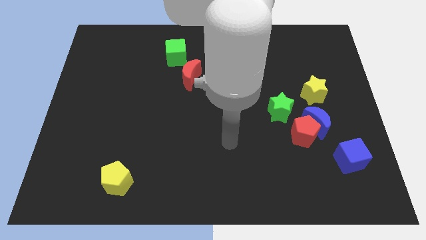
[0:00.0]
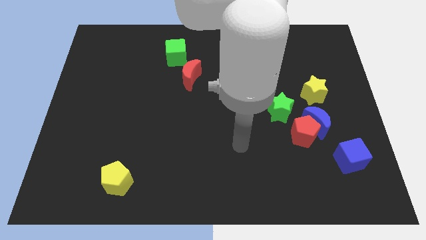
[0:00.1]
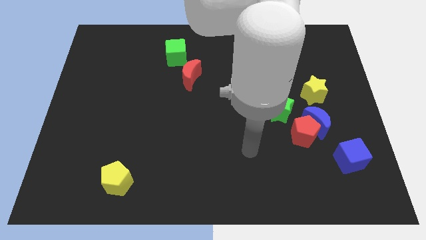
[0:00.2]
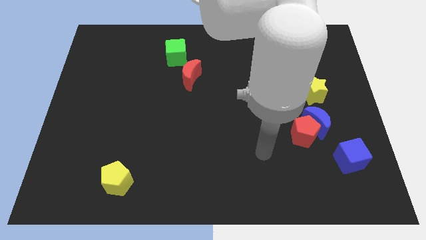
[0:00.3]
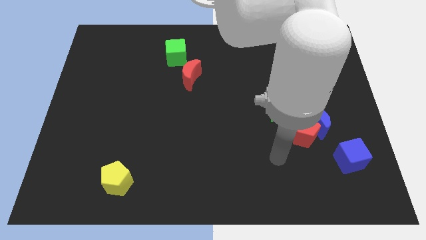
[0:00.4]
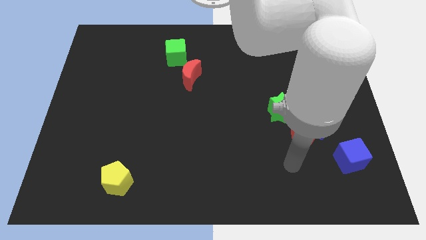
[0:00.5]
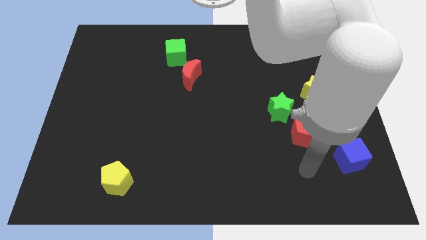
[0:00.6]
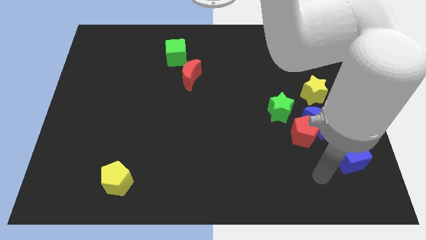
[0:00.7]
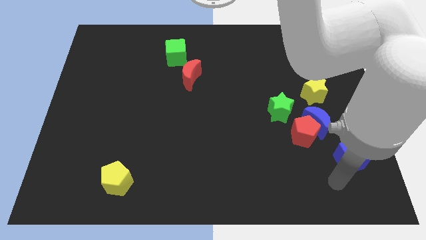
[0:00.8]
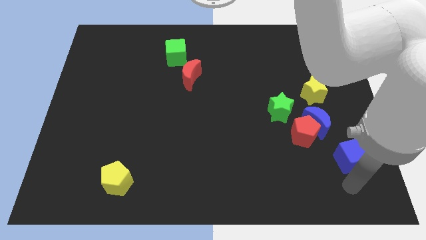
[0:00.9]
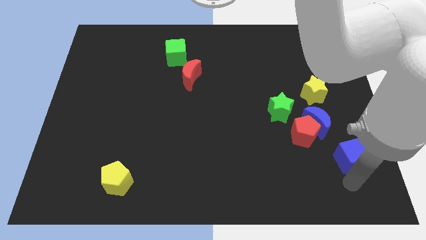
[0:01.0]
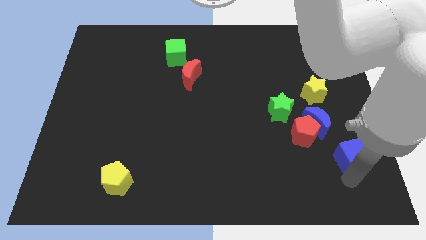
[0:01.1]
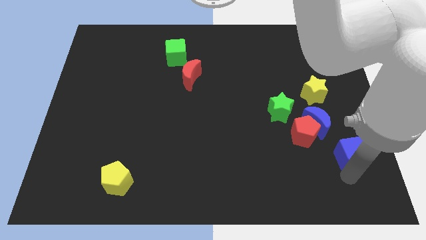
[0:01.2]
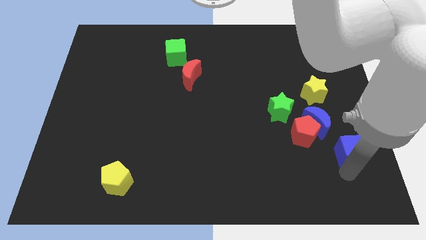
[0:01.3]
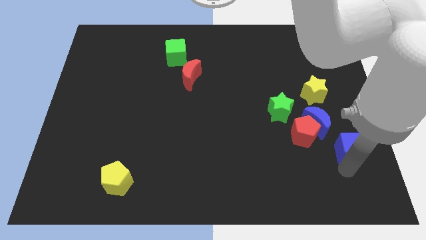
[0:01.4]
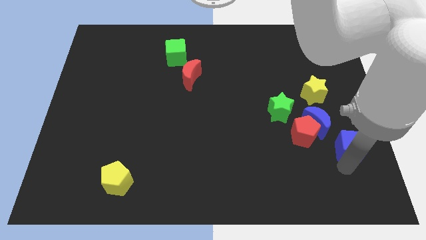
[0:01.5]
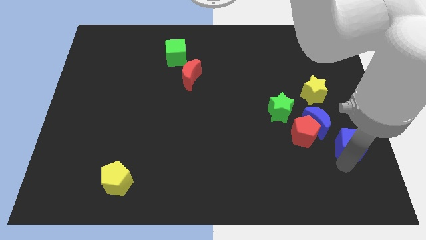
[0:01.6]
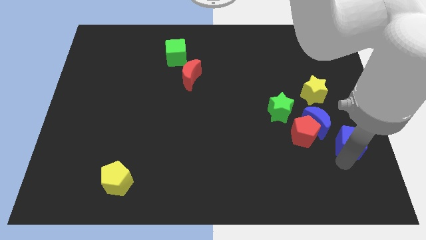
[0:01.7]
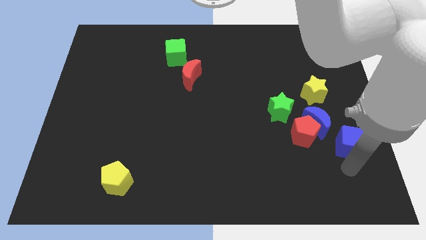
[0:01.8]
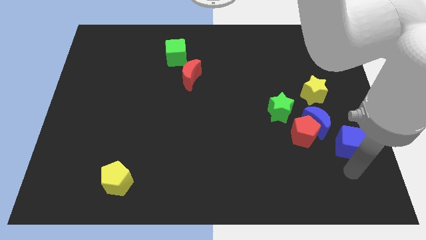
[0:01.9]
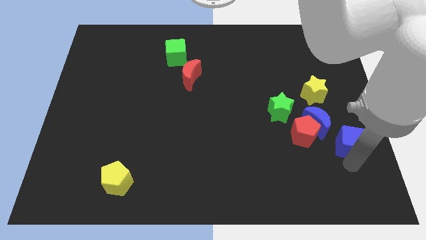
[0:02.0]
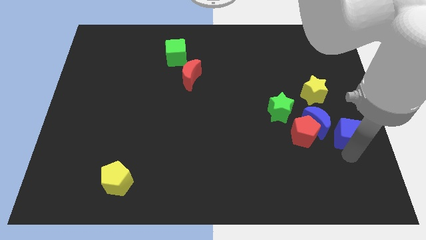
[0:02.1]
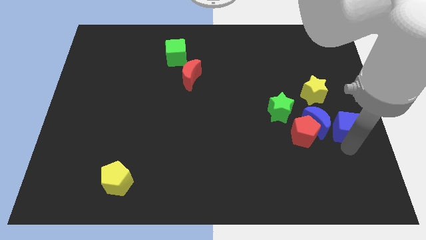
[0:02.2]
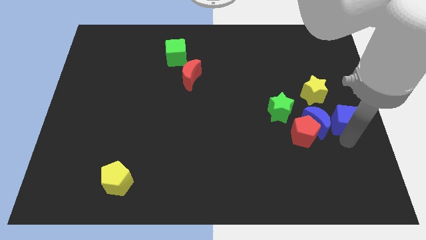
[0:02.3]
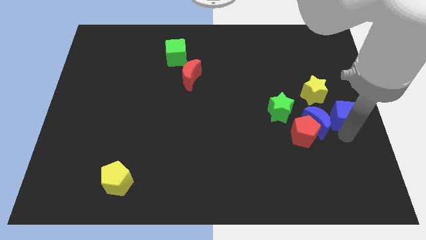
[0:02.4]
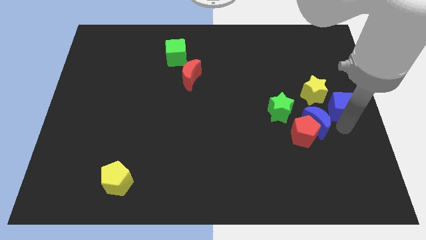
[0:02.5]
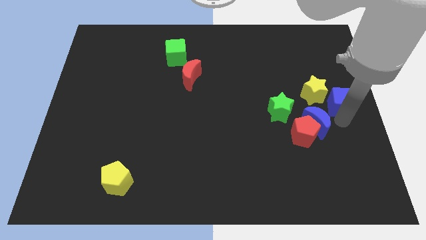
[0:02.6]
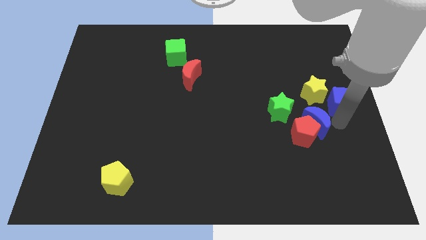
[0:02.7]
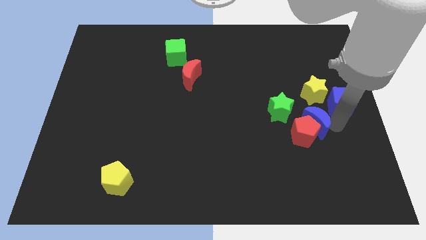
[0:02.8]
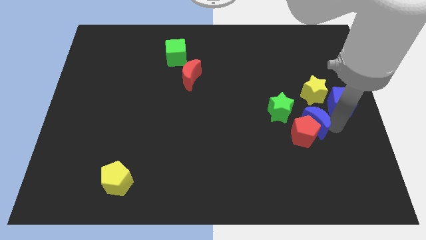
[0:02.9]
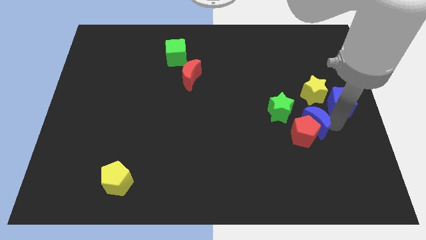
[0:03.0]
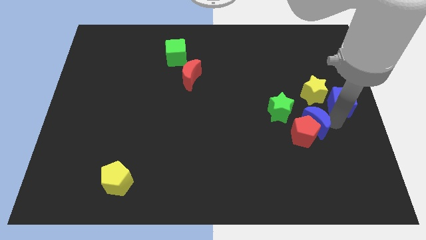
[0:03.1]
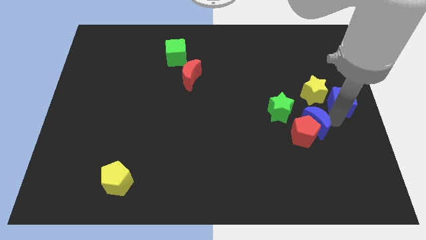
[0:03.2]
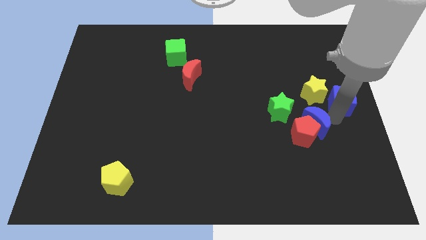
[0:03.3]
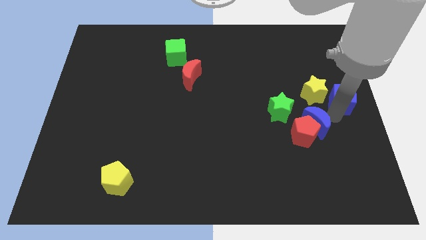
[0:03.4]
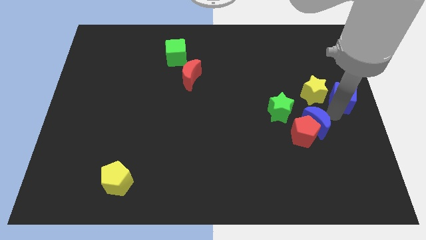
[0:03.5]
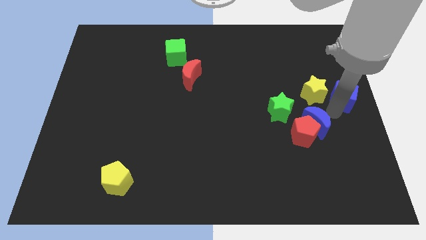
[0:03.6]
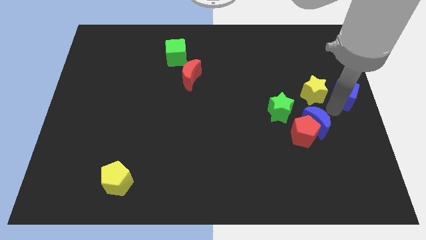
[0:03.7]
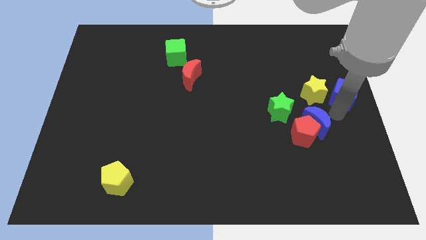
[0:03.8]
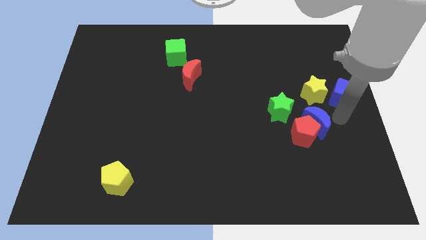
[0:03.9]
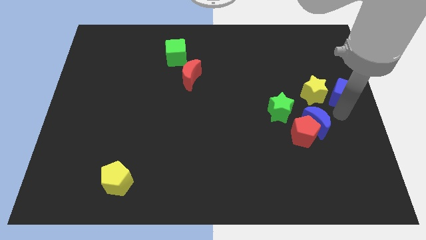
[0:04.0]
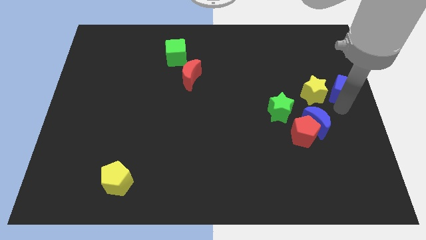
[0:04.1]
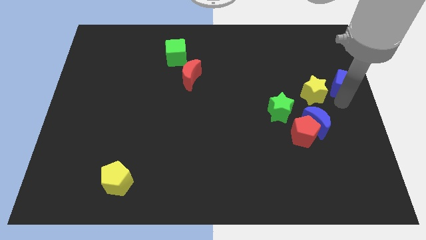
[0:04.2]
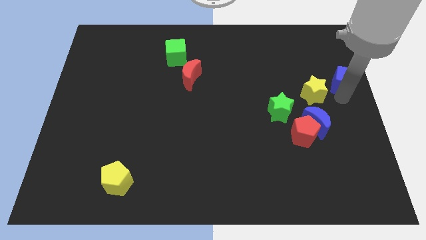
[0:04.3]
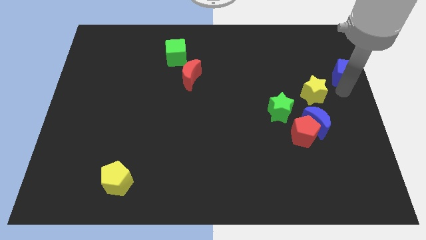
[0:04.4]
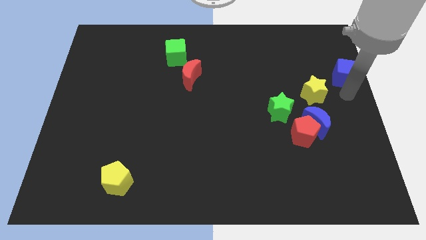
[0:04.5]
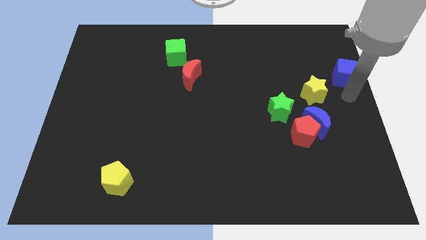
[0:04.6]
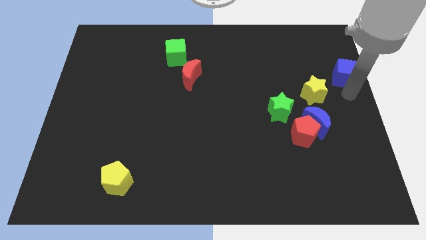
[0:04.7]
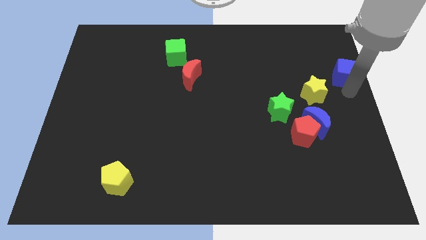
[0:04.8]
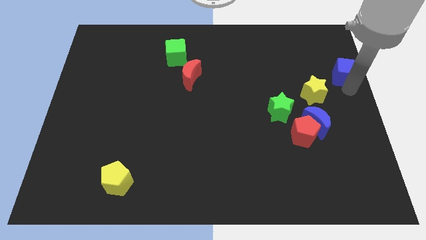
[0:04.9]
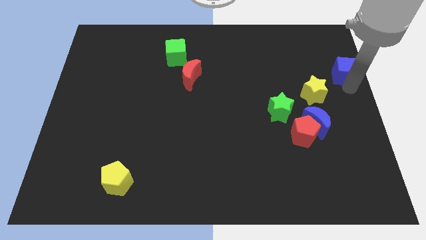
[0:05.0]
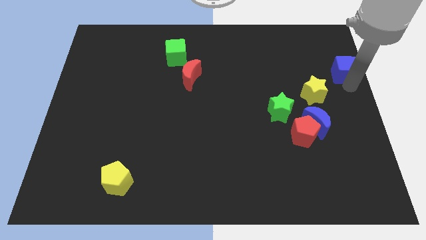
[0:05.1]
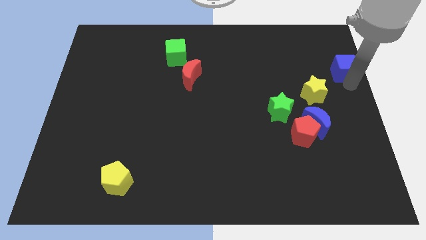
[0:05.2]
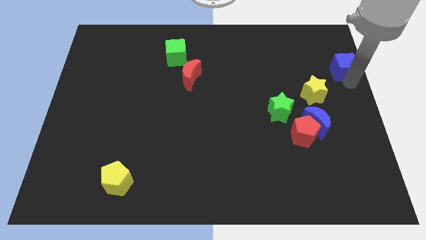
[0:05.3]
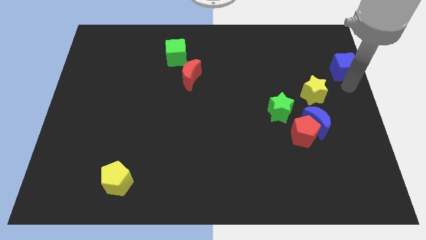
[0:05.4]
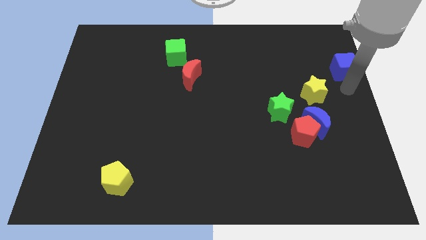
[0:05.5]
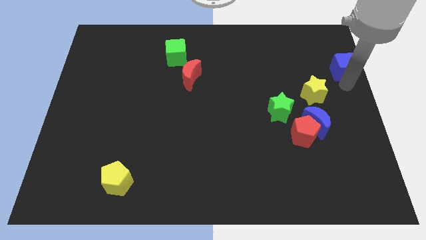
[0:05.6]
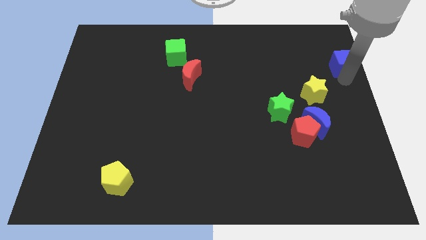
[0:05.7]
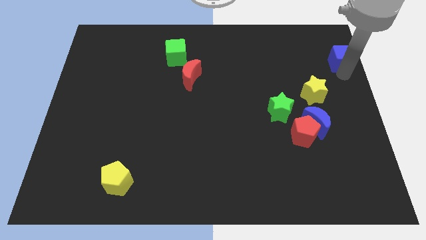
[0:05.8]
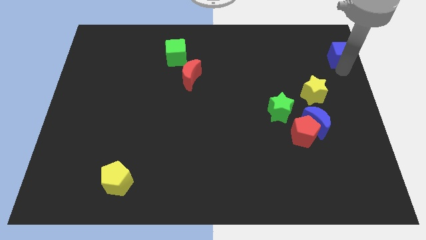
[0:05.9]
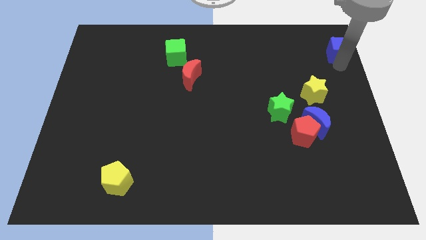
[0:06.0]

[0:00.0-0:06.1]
push the blue cube to the top right

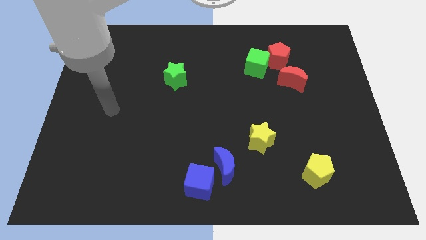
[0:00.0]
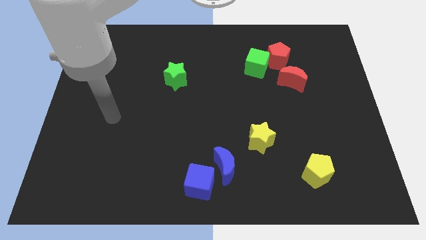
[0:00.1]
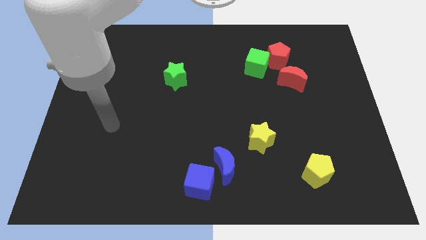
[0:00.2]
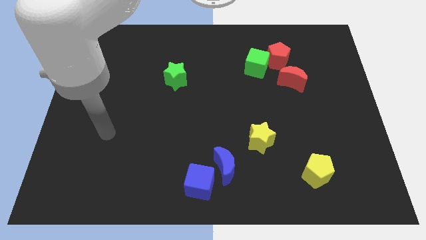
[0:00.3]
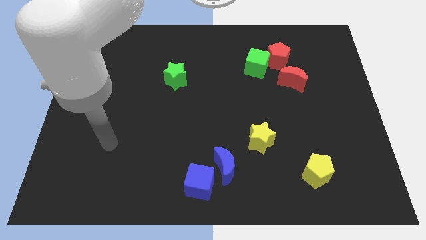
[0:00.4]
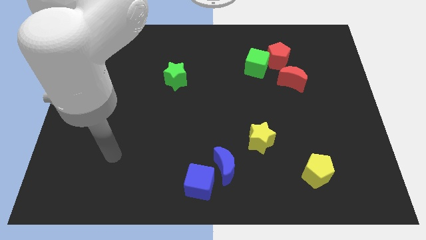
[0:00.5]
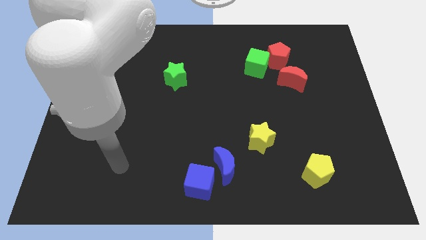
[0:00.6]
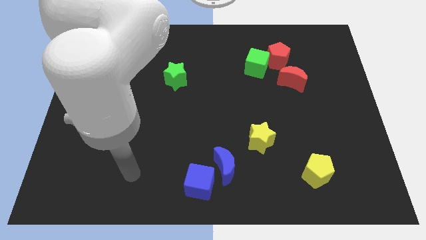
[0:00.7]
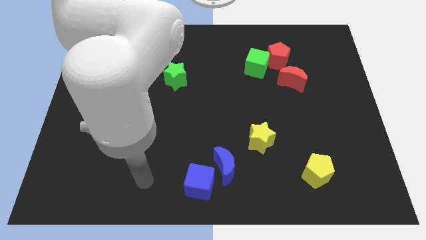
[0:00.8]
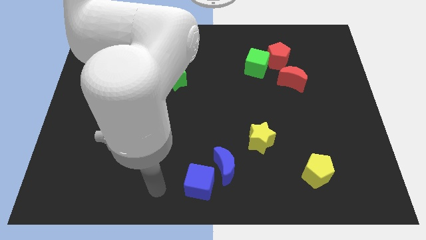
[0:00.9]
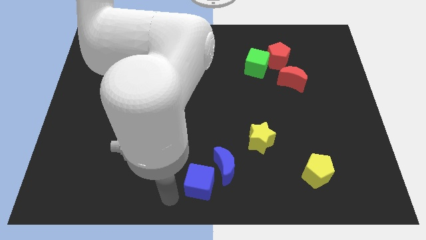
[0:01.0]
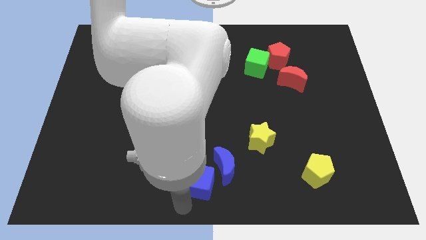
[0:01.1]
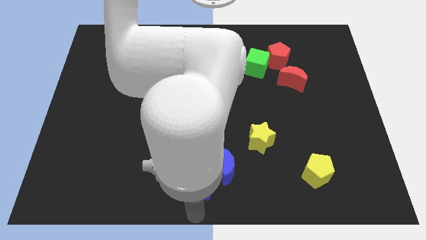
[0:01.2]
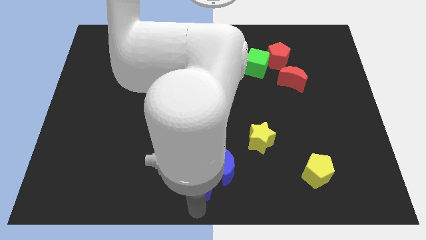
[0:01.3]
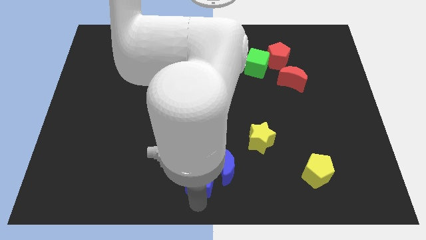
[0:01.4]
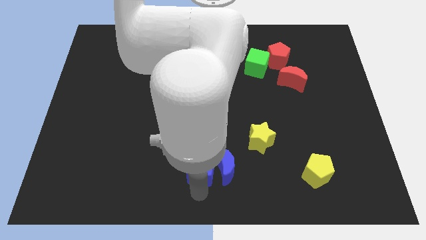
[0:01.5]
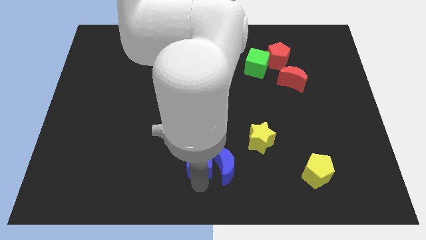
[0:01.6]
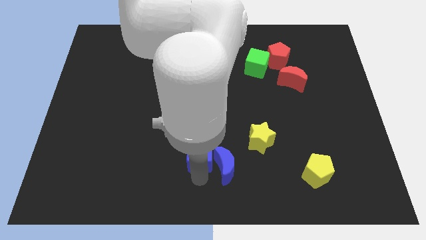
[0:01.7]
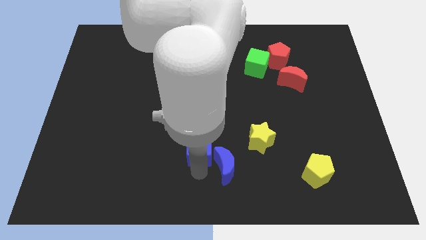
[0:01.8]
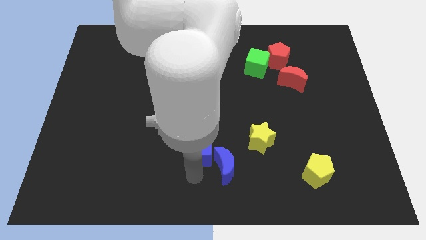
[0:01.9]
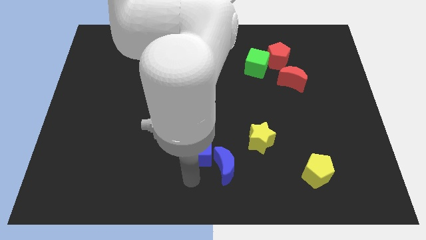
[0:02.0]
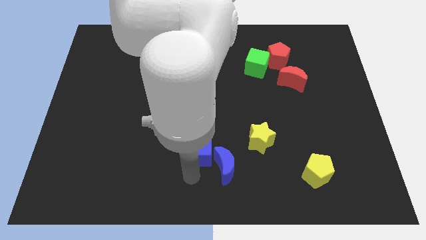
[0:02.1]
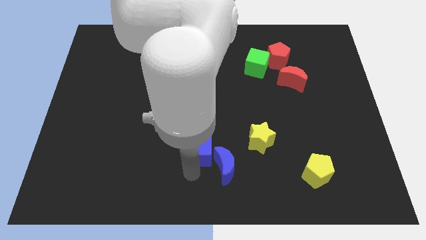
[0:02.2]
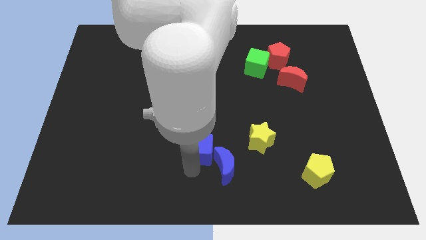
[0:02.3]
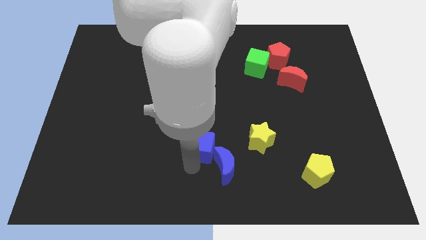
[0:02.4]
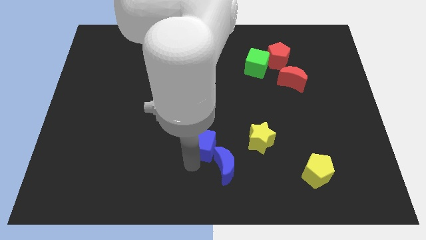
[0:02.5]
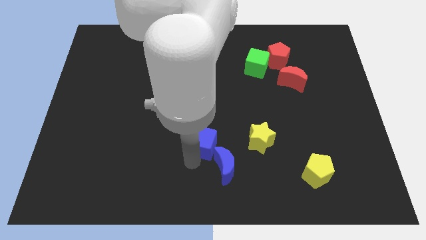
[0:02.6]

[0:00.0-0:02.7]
push the blue cube to the center
